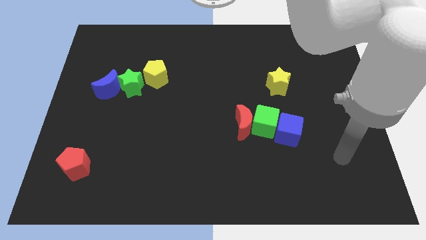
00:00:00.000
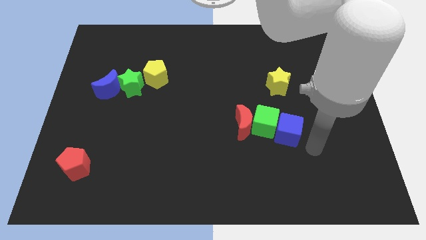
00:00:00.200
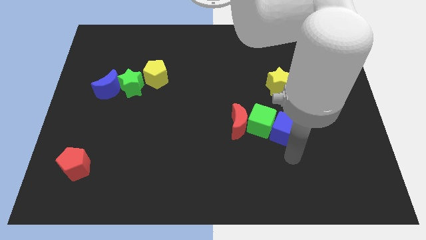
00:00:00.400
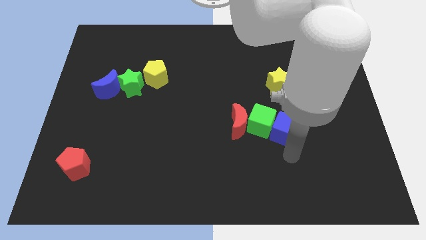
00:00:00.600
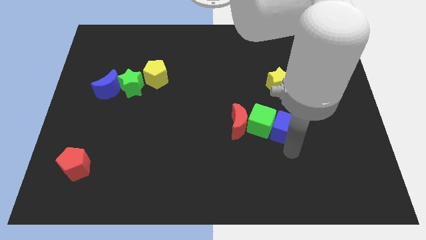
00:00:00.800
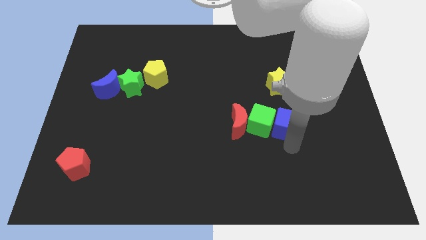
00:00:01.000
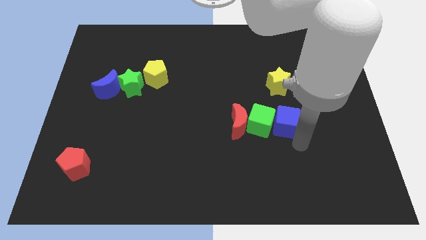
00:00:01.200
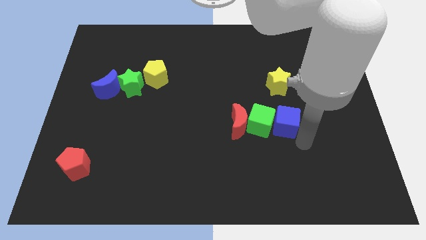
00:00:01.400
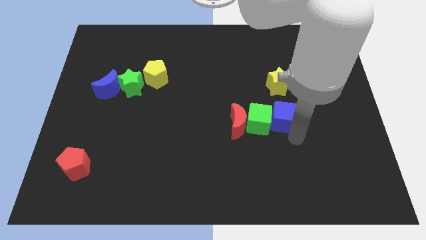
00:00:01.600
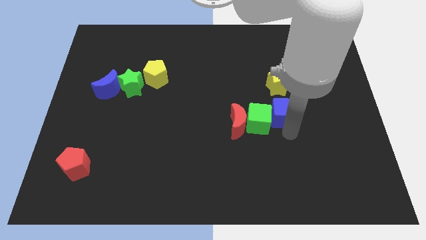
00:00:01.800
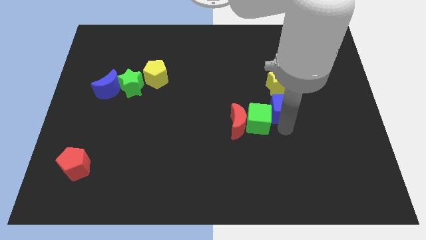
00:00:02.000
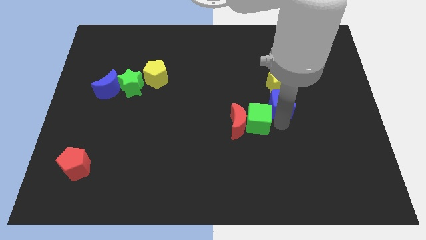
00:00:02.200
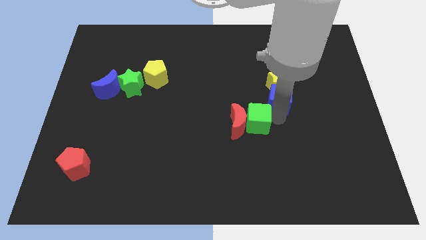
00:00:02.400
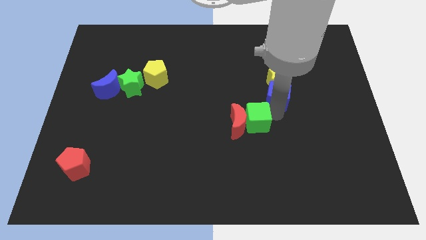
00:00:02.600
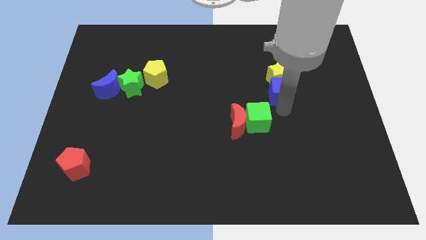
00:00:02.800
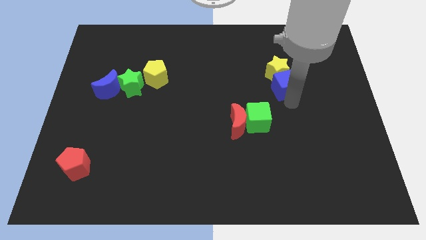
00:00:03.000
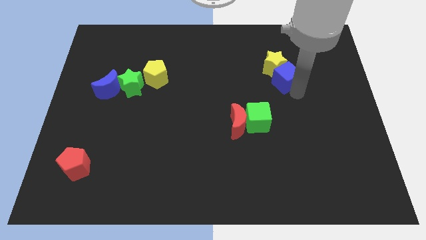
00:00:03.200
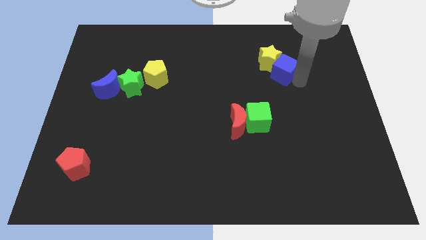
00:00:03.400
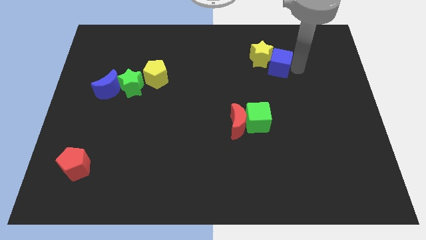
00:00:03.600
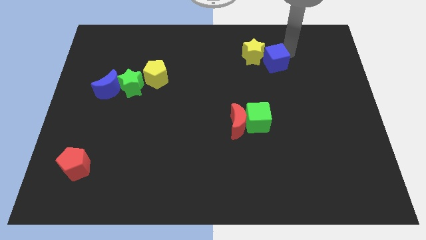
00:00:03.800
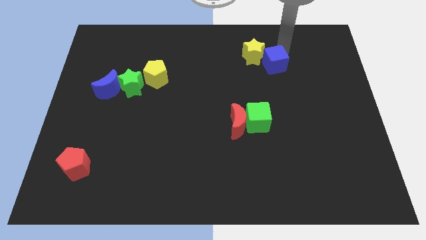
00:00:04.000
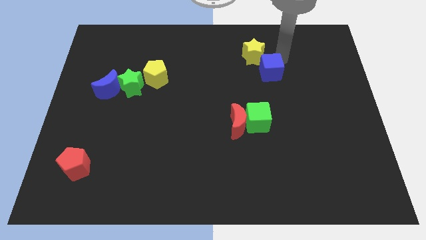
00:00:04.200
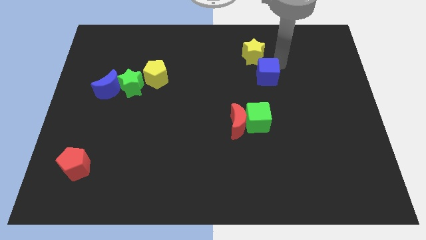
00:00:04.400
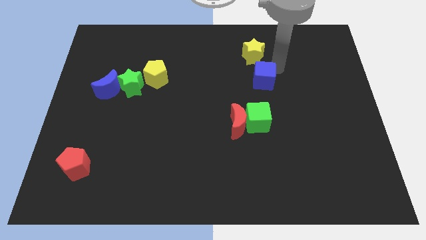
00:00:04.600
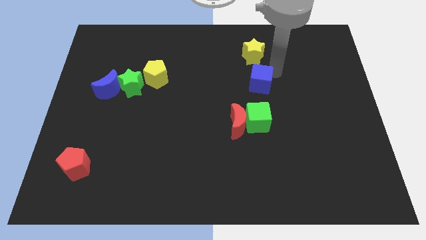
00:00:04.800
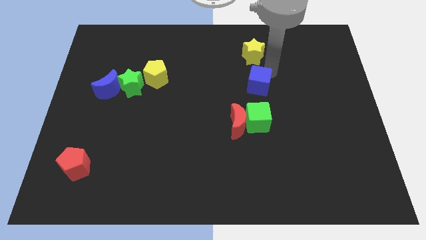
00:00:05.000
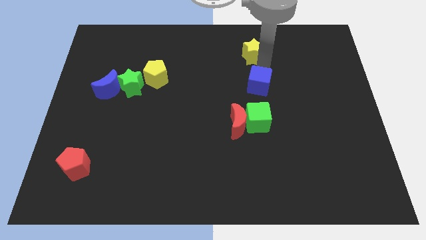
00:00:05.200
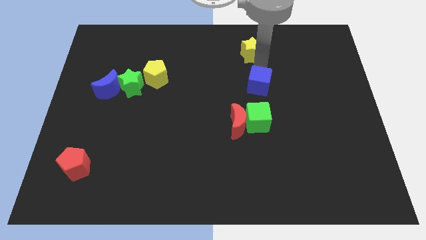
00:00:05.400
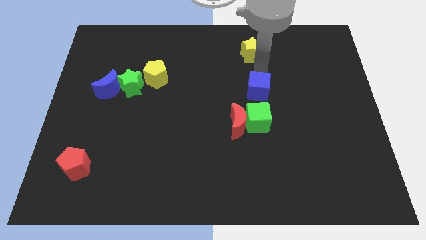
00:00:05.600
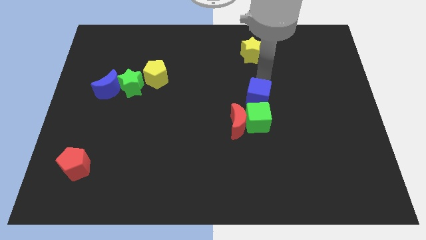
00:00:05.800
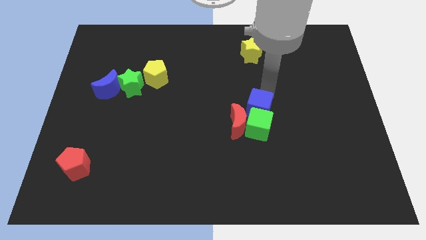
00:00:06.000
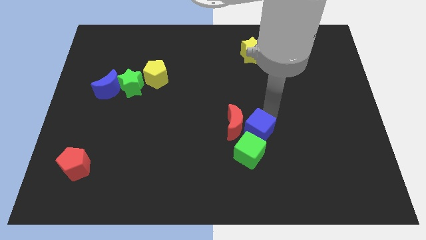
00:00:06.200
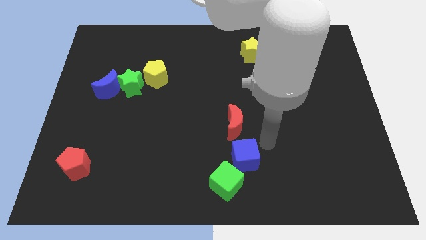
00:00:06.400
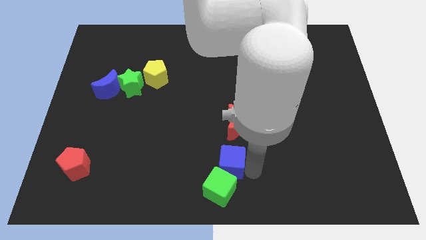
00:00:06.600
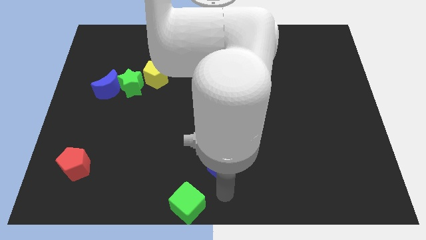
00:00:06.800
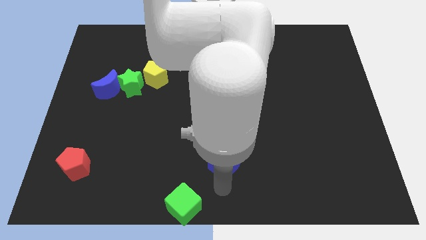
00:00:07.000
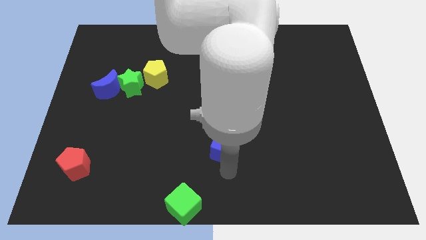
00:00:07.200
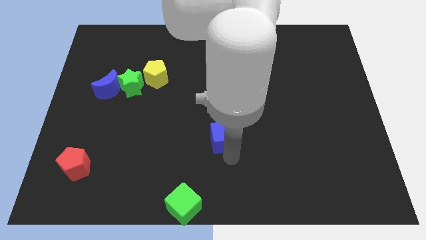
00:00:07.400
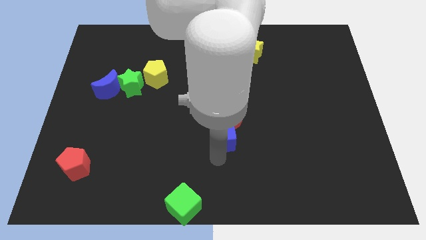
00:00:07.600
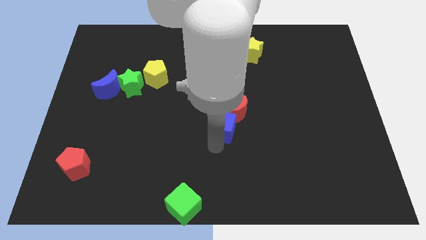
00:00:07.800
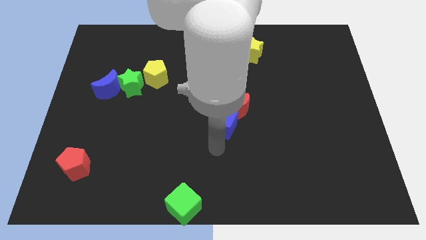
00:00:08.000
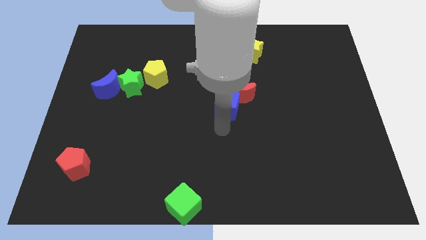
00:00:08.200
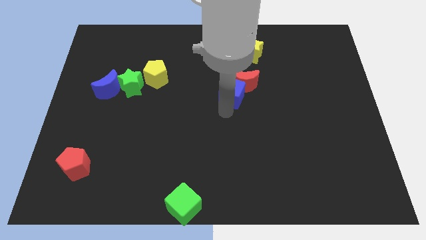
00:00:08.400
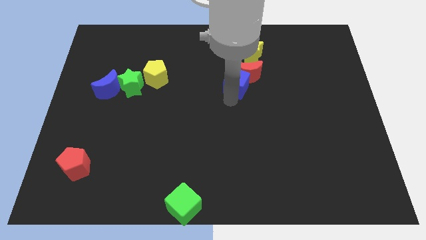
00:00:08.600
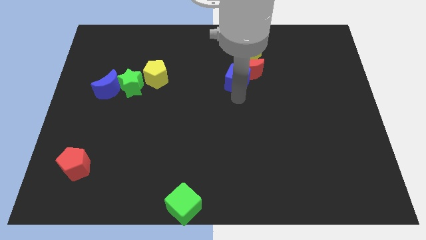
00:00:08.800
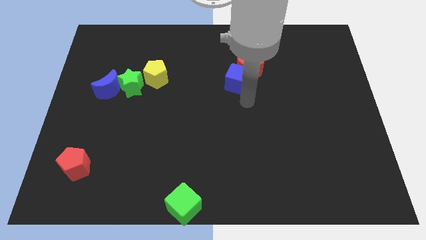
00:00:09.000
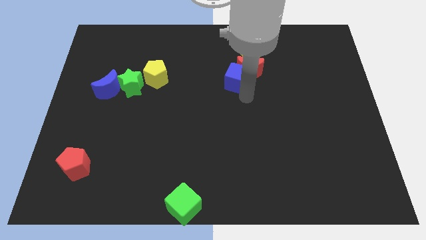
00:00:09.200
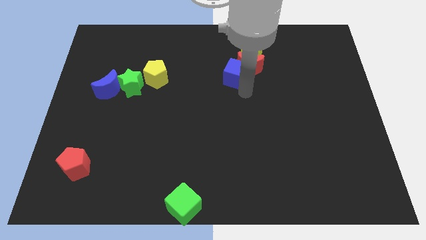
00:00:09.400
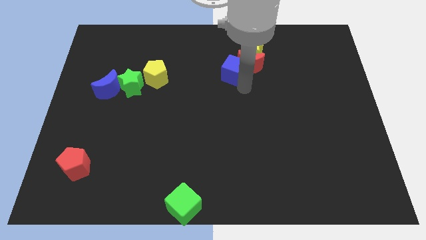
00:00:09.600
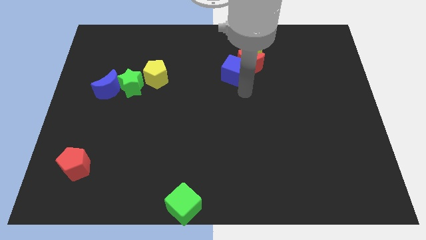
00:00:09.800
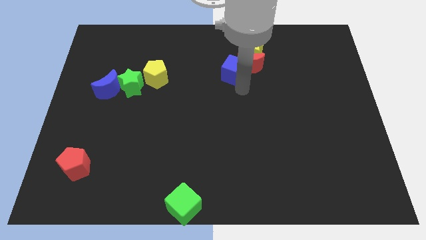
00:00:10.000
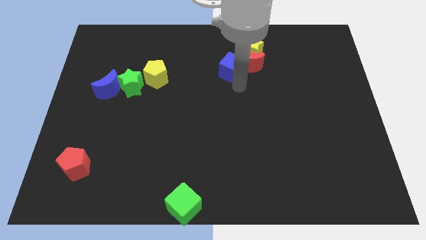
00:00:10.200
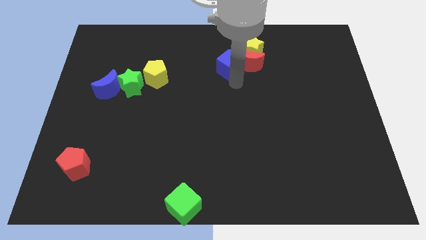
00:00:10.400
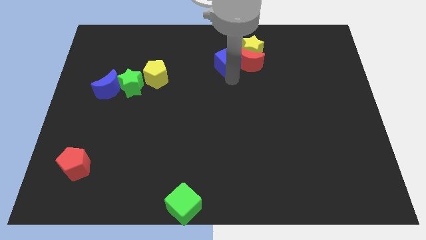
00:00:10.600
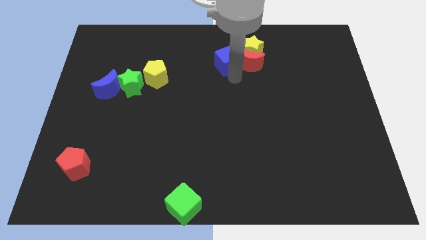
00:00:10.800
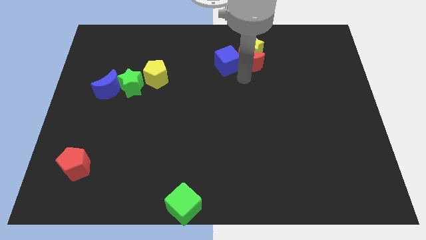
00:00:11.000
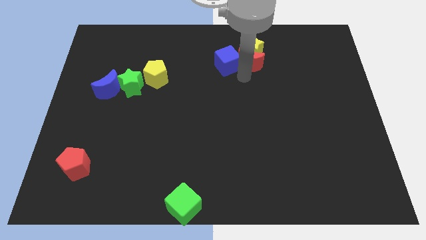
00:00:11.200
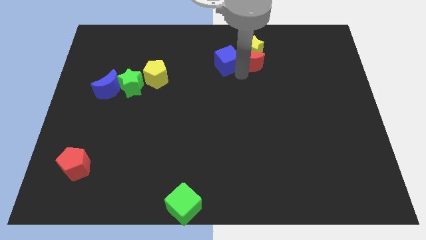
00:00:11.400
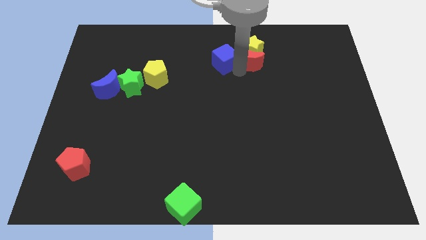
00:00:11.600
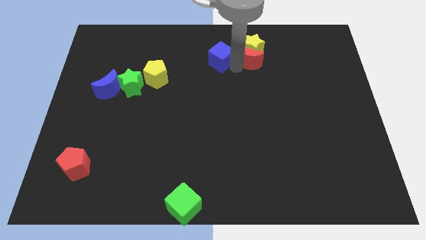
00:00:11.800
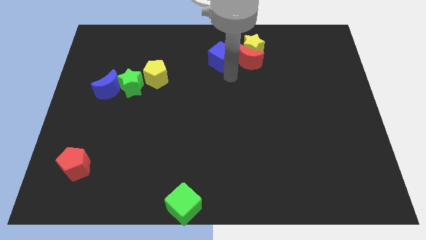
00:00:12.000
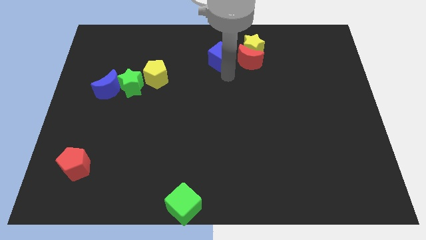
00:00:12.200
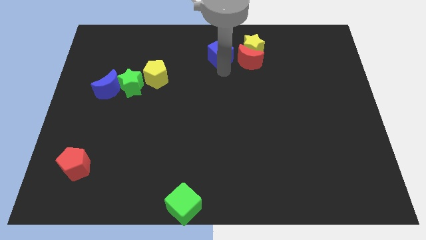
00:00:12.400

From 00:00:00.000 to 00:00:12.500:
move the blue cube to the top side
